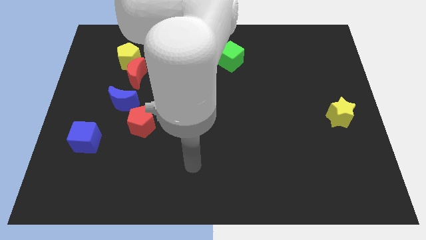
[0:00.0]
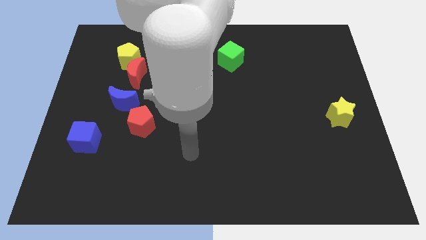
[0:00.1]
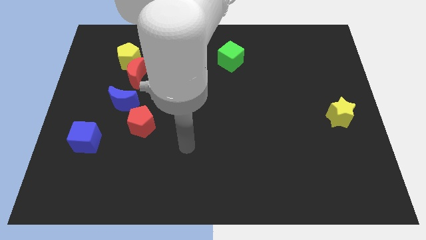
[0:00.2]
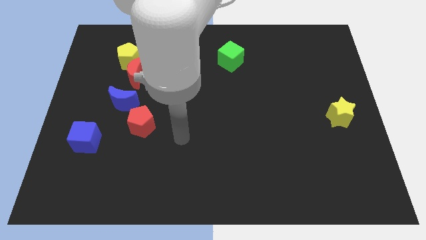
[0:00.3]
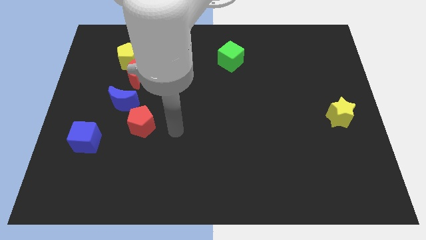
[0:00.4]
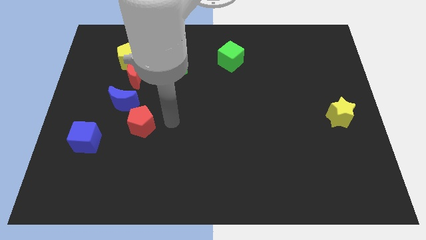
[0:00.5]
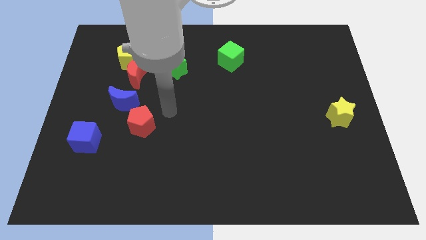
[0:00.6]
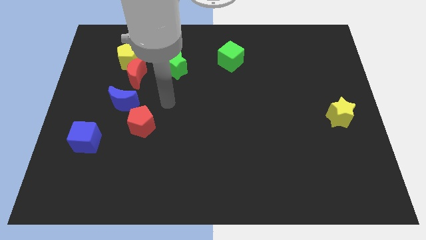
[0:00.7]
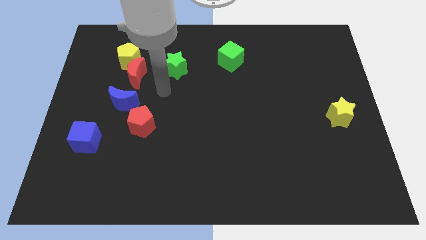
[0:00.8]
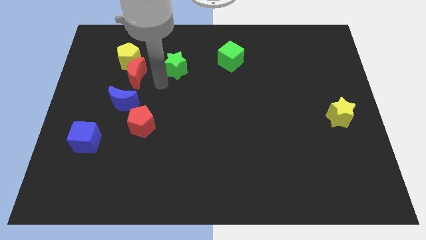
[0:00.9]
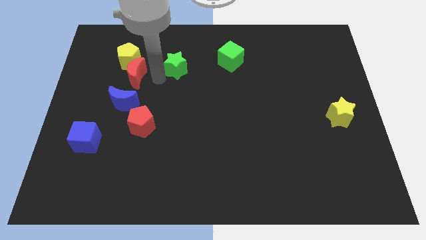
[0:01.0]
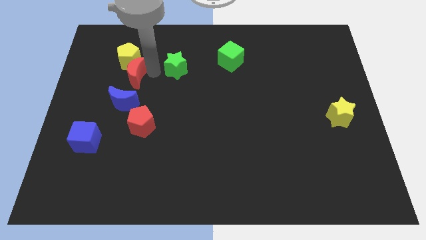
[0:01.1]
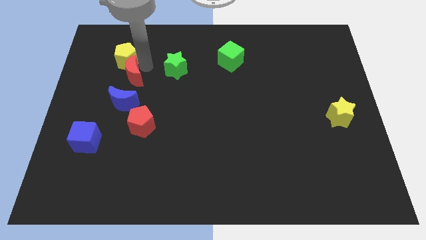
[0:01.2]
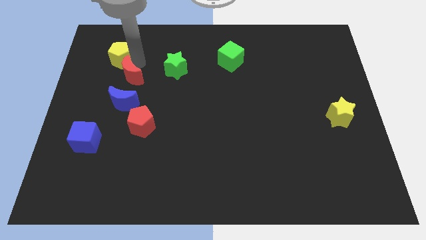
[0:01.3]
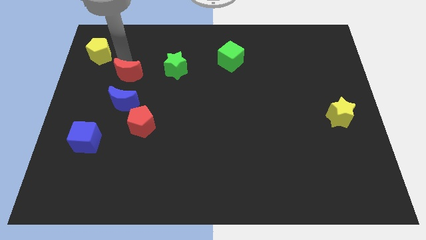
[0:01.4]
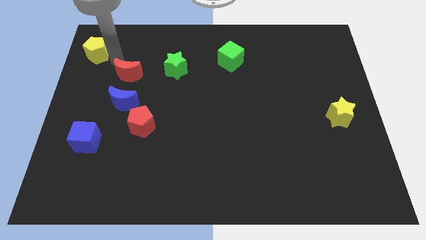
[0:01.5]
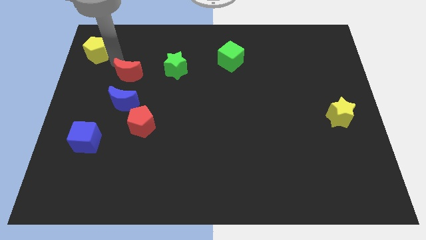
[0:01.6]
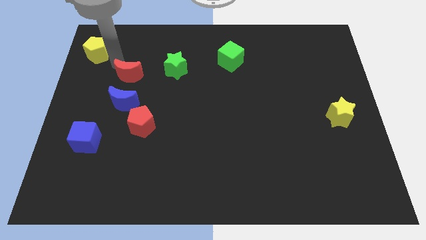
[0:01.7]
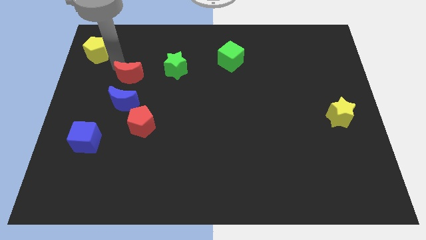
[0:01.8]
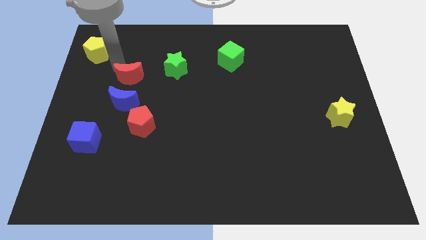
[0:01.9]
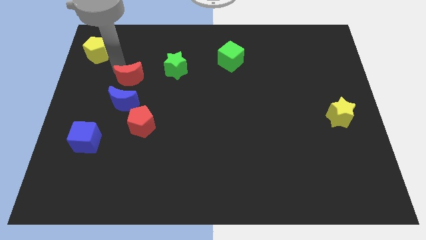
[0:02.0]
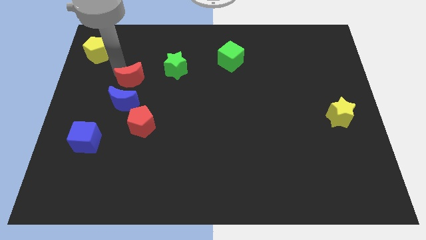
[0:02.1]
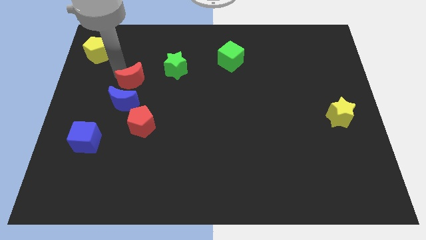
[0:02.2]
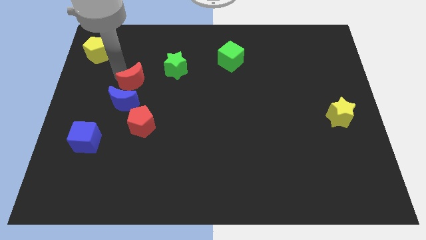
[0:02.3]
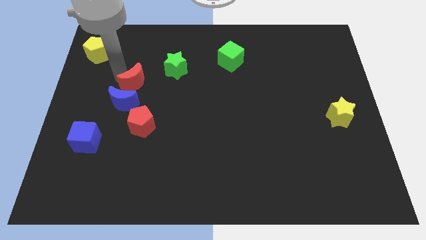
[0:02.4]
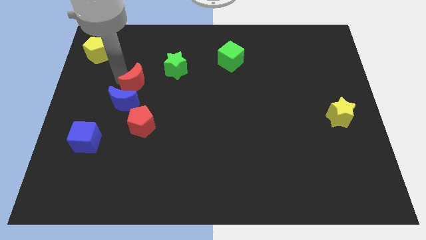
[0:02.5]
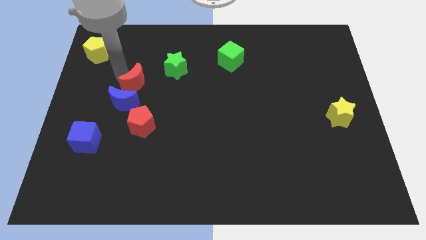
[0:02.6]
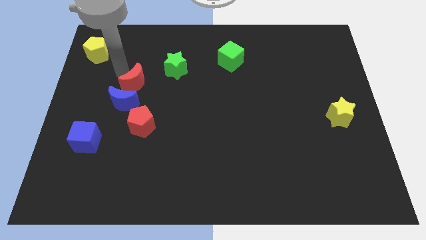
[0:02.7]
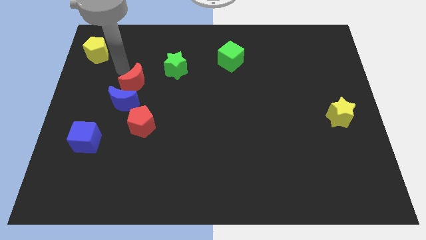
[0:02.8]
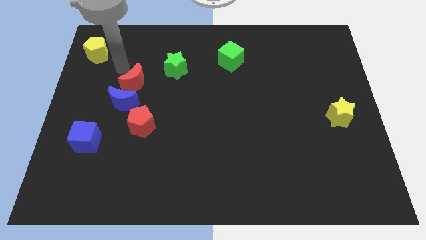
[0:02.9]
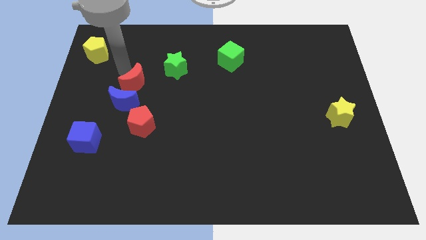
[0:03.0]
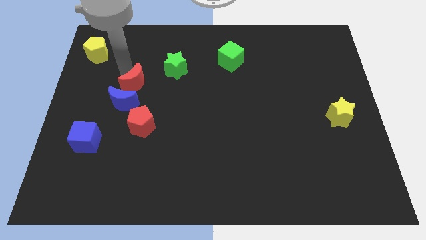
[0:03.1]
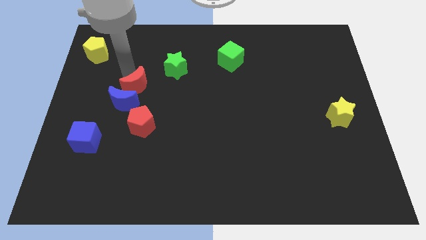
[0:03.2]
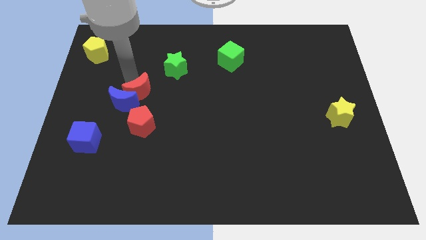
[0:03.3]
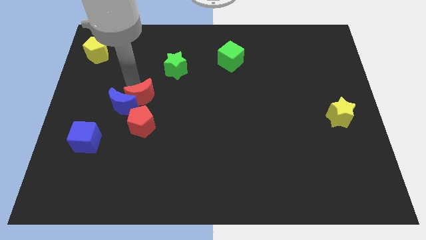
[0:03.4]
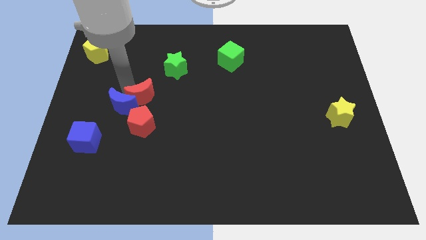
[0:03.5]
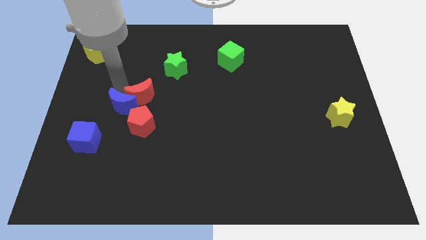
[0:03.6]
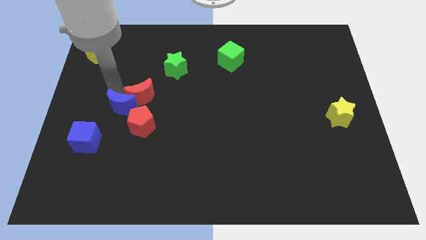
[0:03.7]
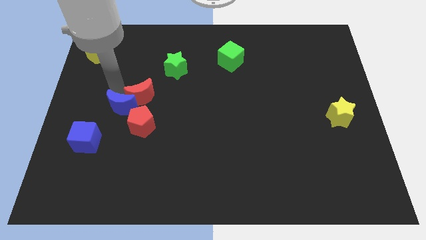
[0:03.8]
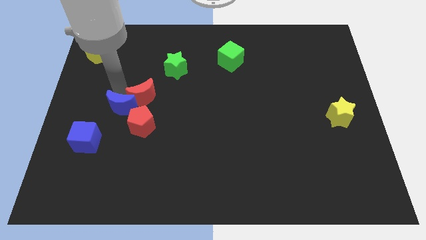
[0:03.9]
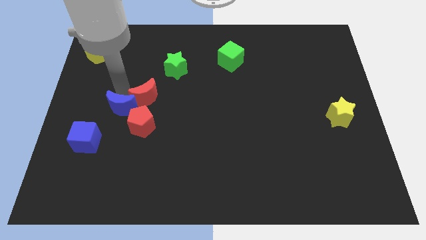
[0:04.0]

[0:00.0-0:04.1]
move the red moon a little diagonally downwards and to the right

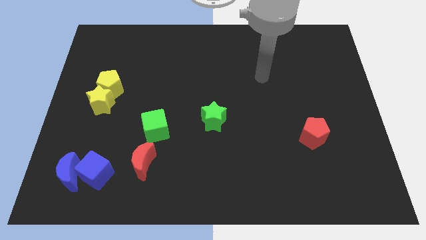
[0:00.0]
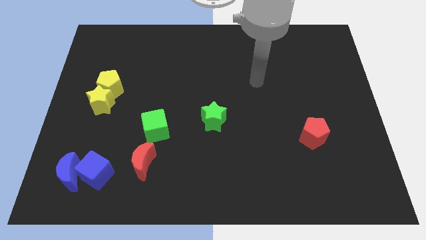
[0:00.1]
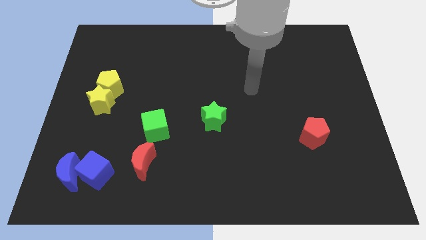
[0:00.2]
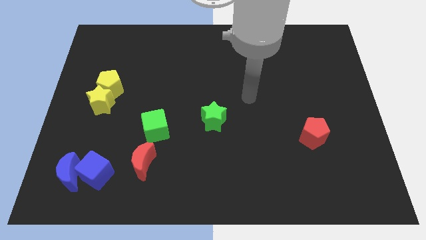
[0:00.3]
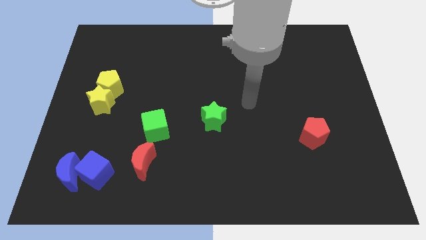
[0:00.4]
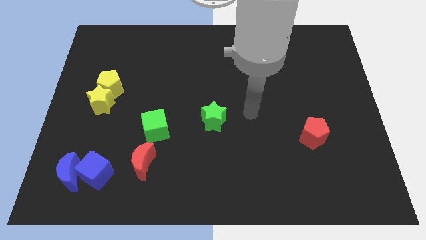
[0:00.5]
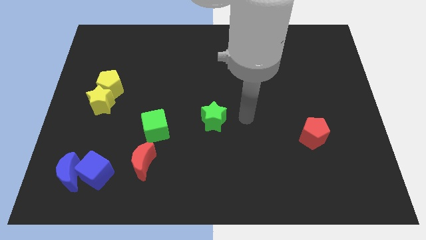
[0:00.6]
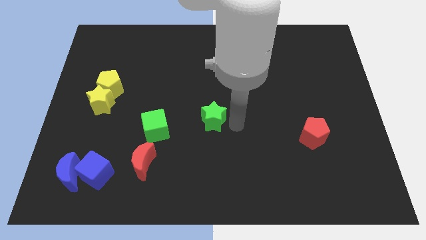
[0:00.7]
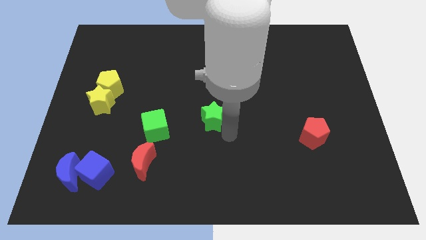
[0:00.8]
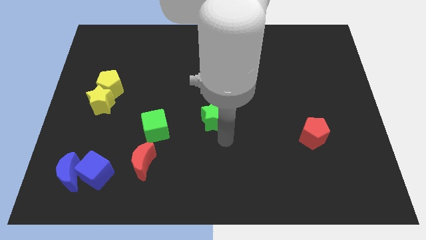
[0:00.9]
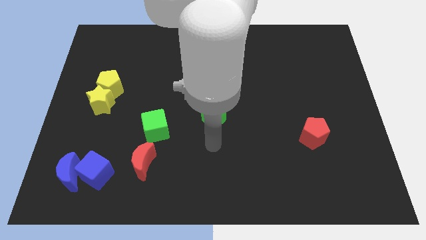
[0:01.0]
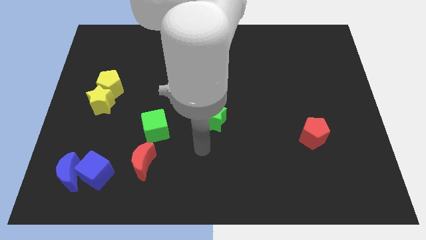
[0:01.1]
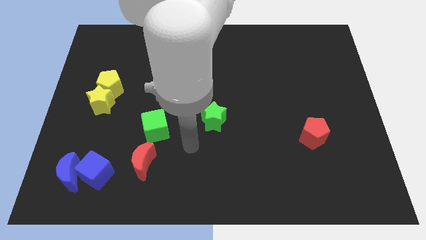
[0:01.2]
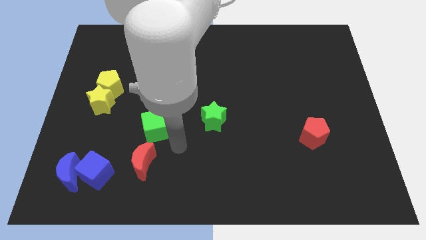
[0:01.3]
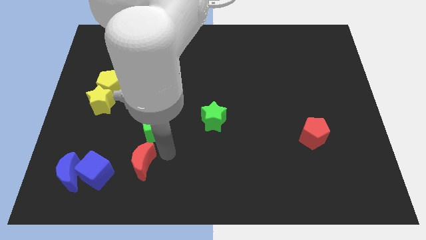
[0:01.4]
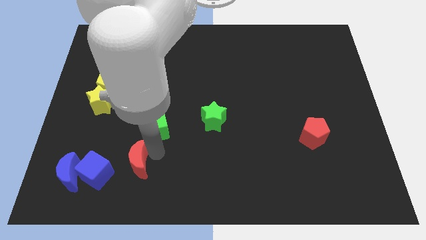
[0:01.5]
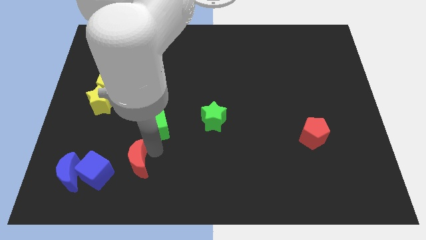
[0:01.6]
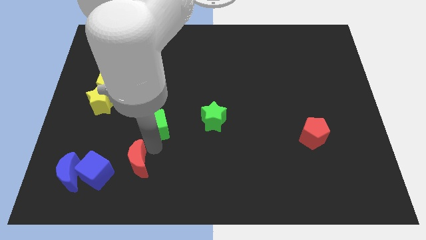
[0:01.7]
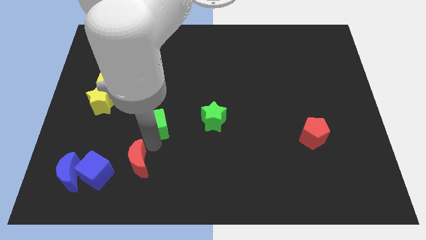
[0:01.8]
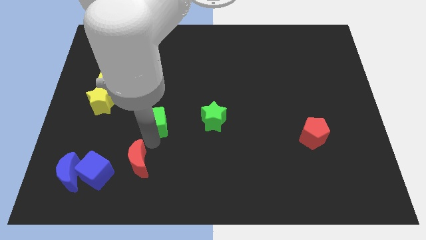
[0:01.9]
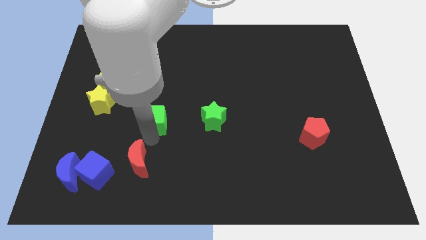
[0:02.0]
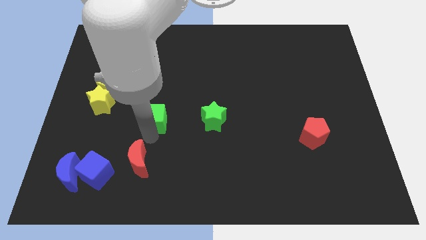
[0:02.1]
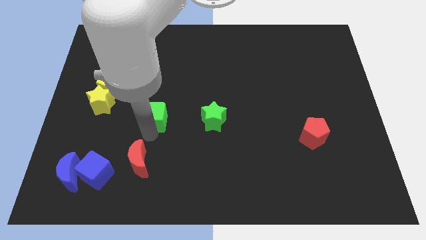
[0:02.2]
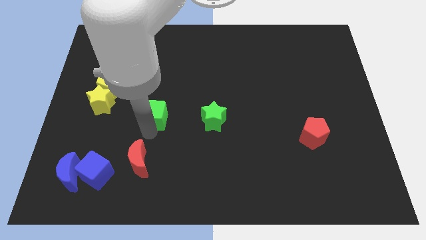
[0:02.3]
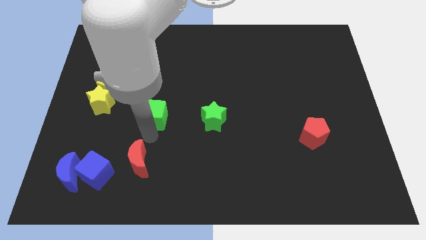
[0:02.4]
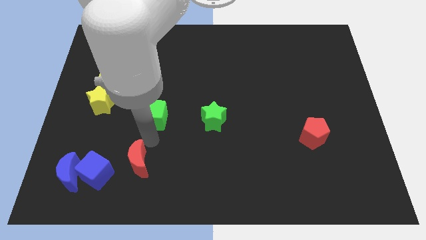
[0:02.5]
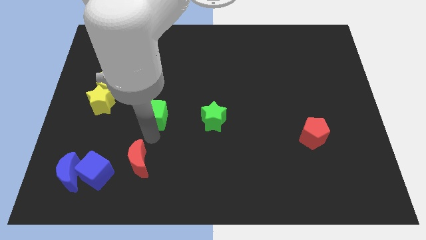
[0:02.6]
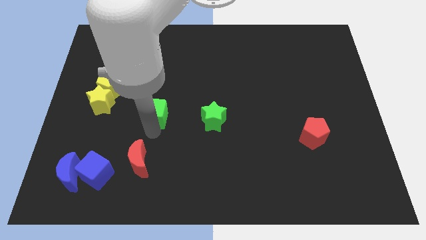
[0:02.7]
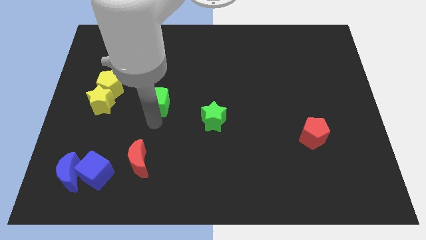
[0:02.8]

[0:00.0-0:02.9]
push the green cube up a bit

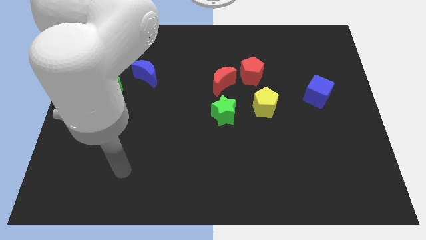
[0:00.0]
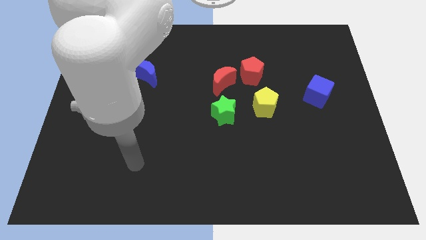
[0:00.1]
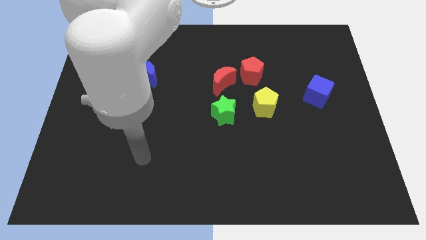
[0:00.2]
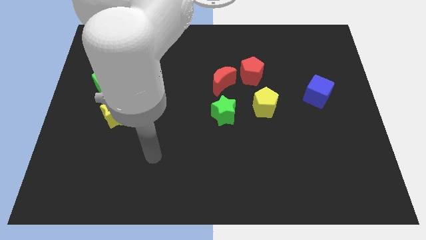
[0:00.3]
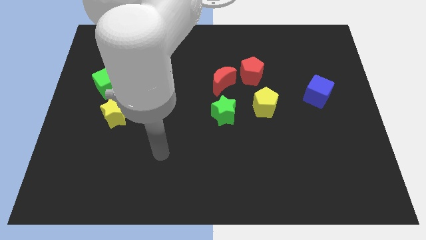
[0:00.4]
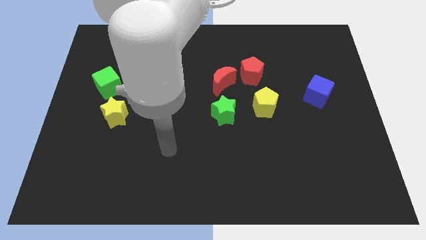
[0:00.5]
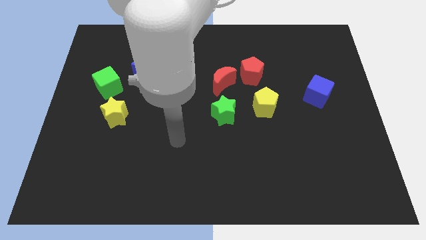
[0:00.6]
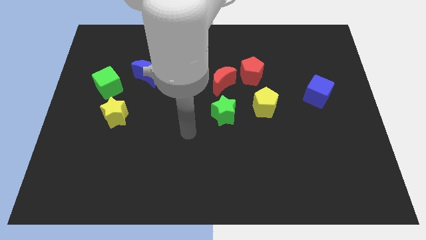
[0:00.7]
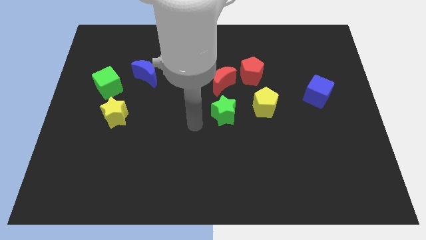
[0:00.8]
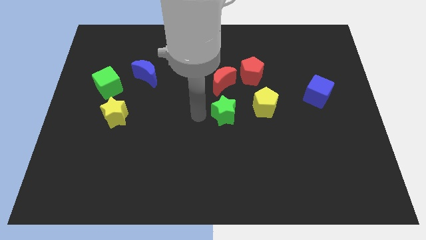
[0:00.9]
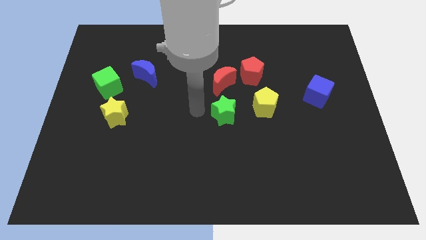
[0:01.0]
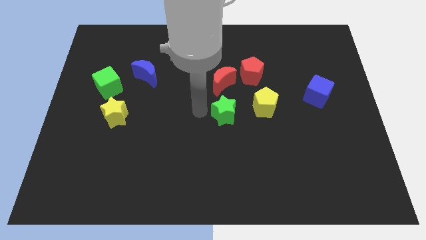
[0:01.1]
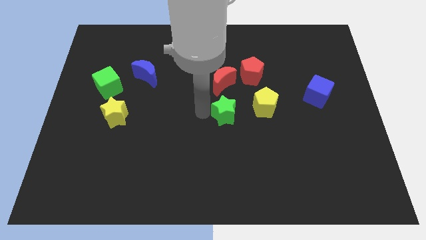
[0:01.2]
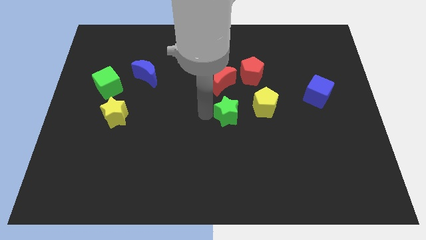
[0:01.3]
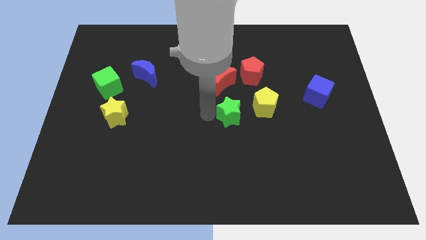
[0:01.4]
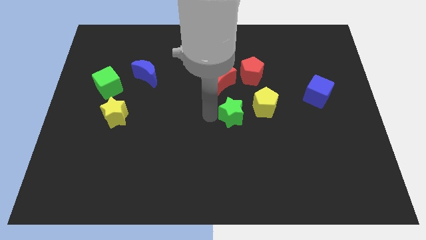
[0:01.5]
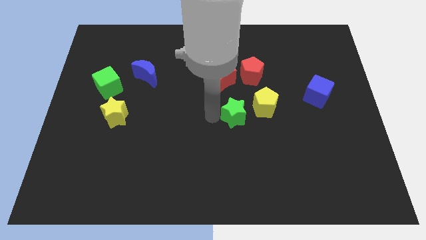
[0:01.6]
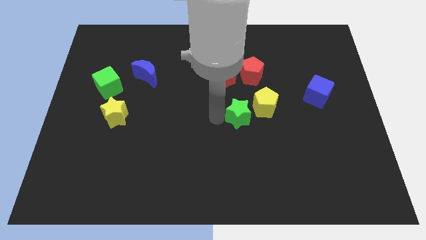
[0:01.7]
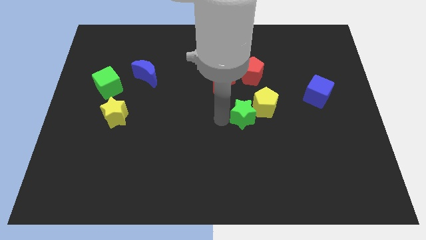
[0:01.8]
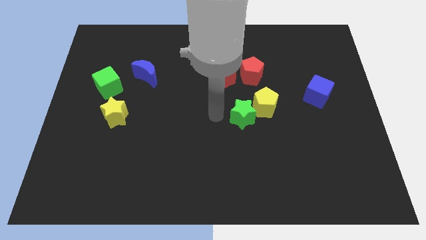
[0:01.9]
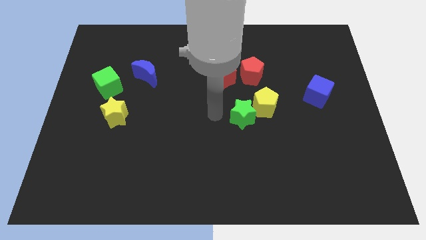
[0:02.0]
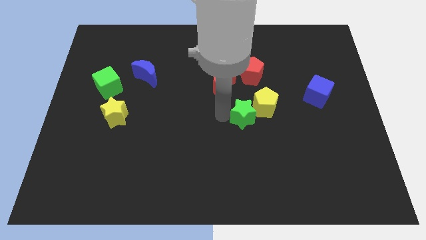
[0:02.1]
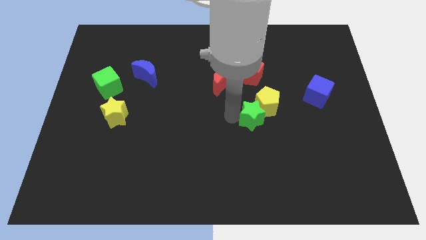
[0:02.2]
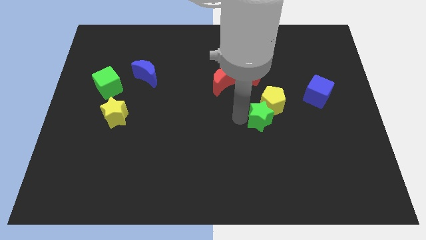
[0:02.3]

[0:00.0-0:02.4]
slightly move the green star right
